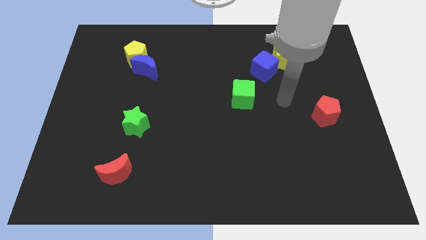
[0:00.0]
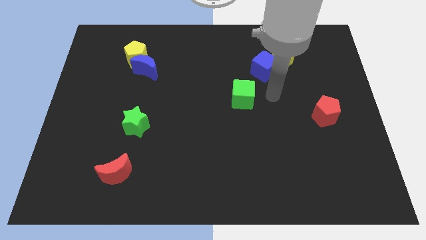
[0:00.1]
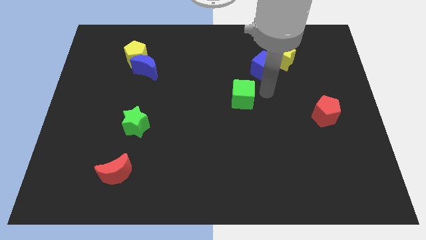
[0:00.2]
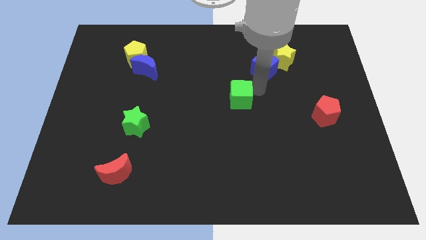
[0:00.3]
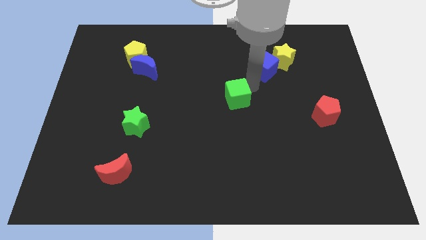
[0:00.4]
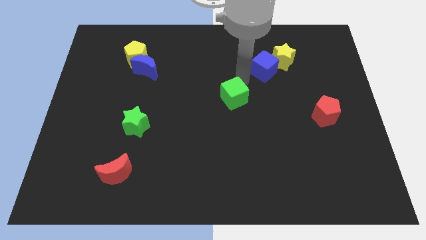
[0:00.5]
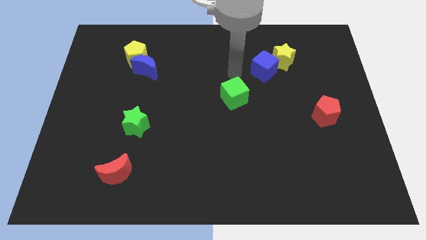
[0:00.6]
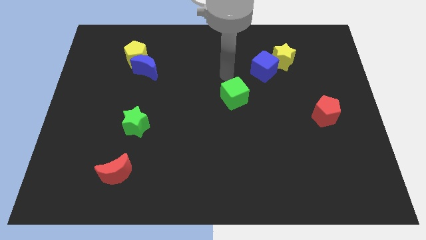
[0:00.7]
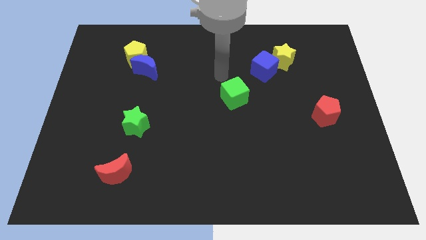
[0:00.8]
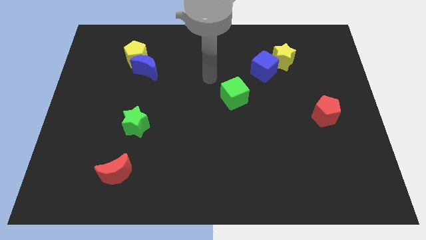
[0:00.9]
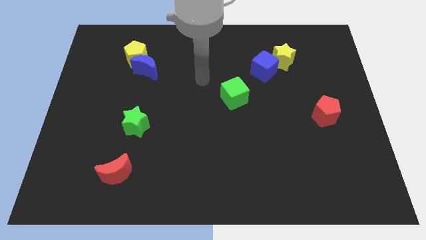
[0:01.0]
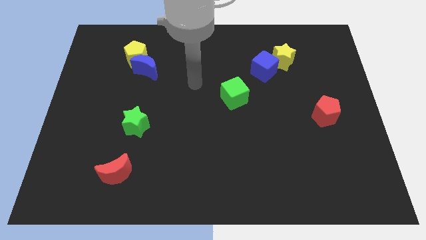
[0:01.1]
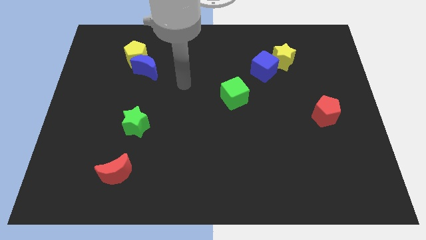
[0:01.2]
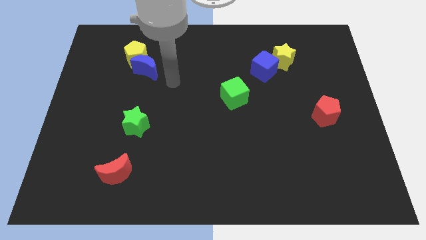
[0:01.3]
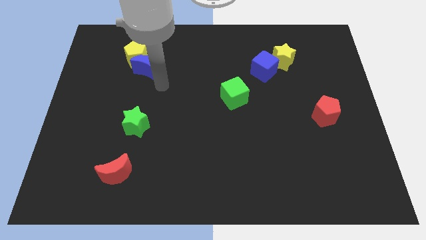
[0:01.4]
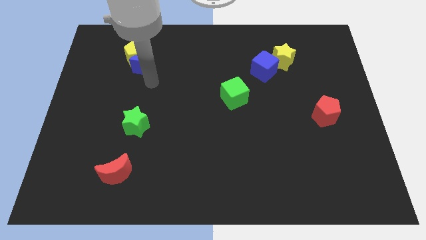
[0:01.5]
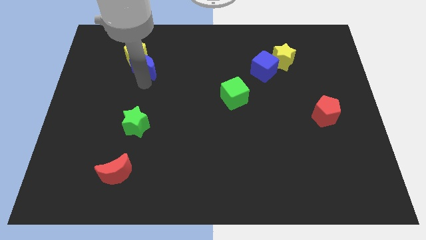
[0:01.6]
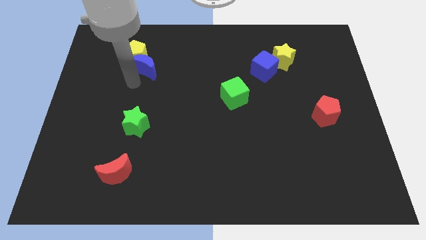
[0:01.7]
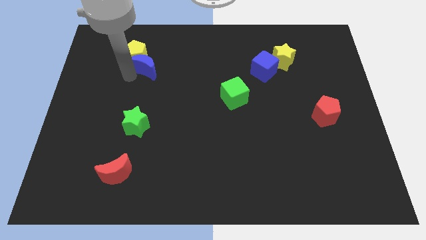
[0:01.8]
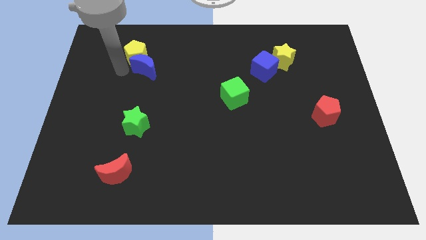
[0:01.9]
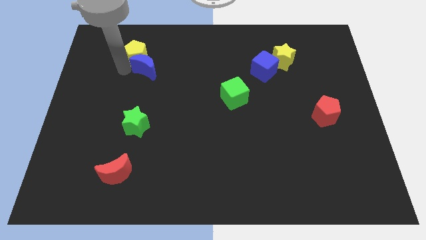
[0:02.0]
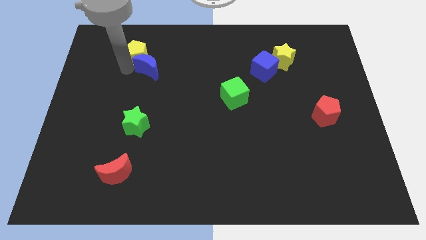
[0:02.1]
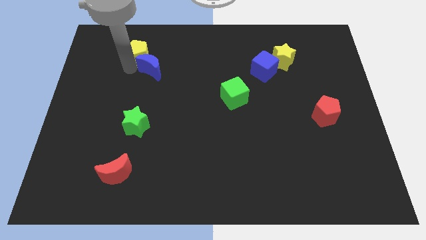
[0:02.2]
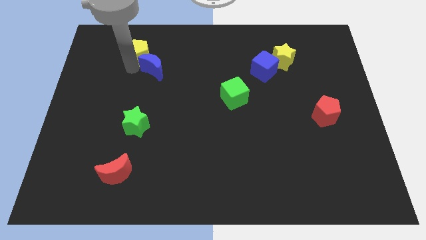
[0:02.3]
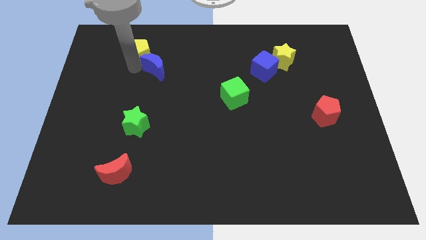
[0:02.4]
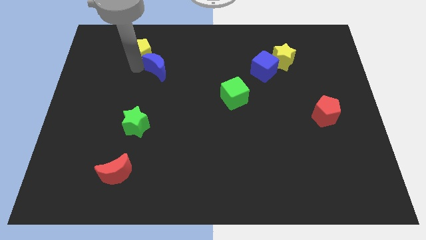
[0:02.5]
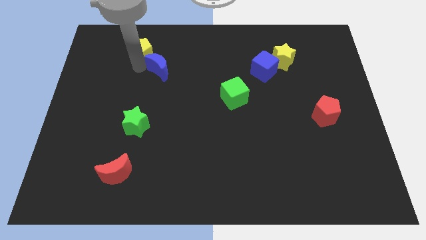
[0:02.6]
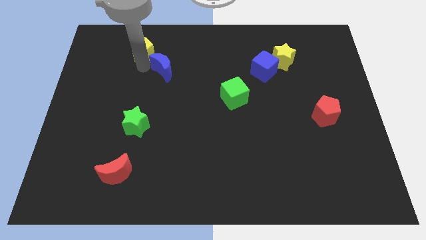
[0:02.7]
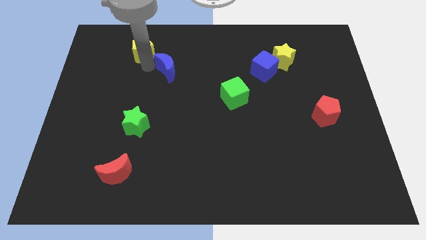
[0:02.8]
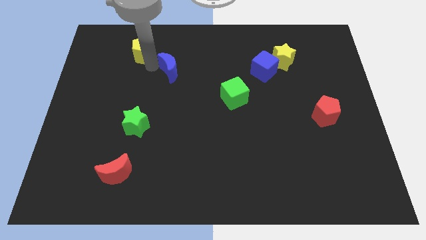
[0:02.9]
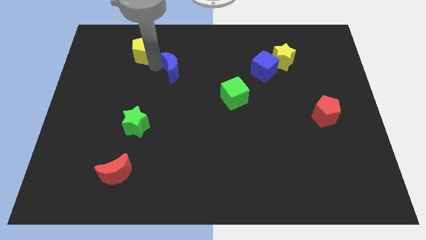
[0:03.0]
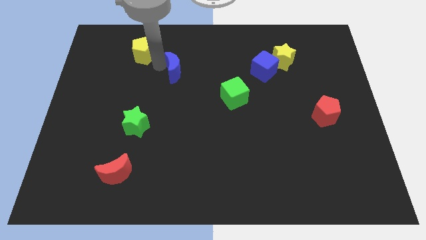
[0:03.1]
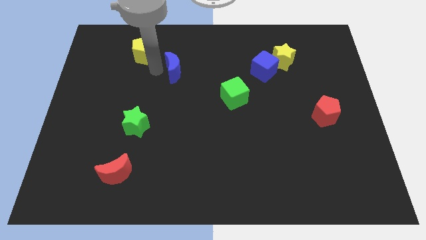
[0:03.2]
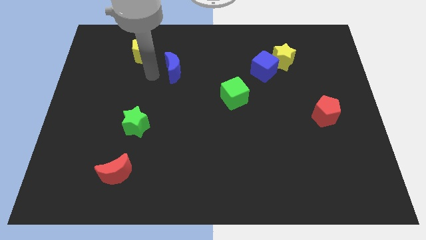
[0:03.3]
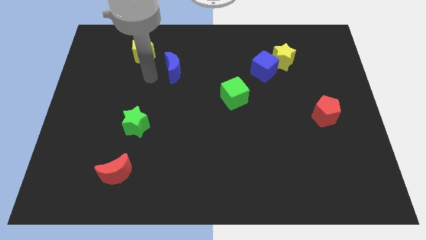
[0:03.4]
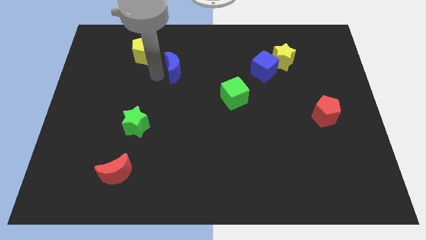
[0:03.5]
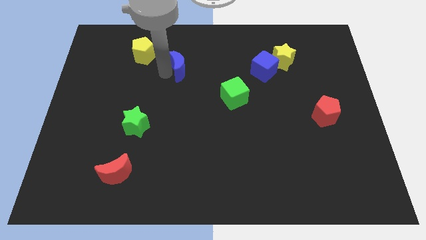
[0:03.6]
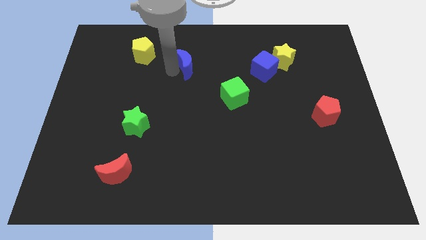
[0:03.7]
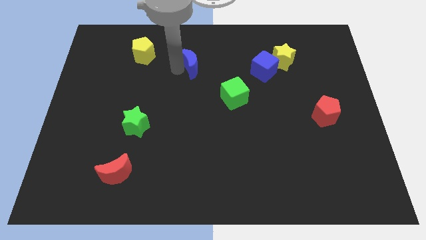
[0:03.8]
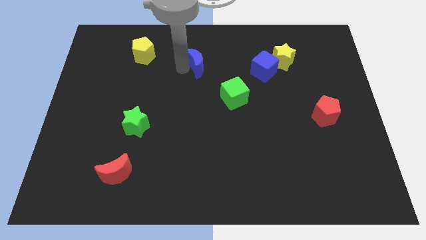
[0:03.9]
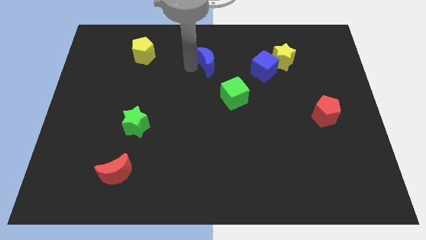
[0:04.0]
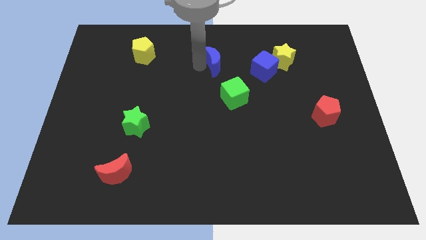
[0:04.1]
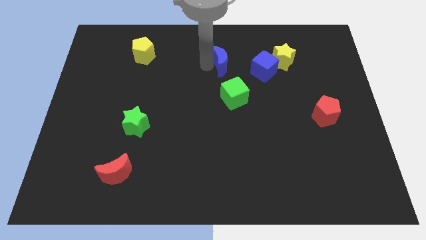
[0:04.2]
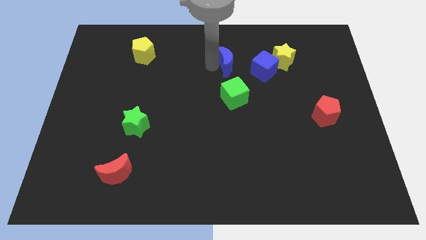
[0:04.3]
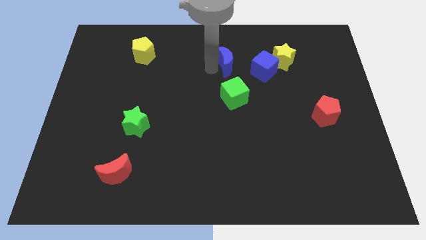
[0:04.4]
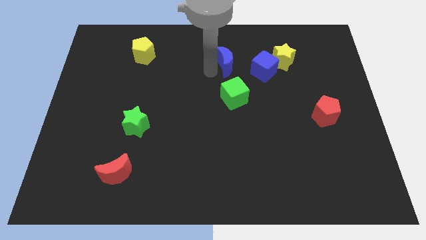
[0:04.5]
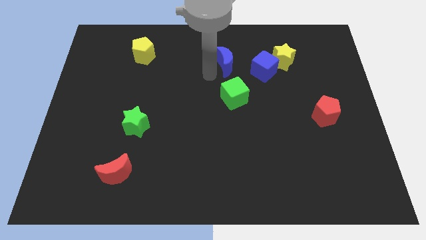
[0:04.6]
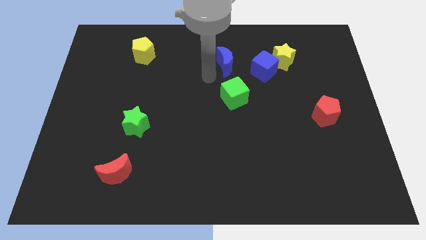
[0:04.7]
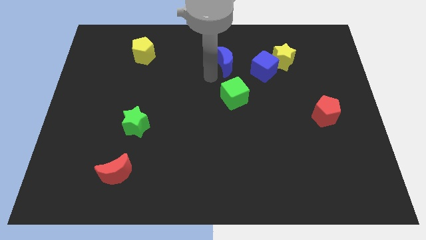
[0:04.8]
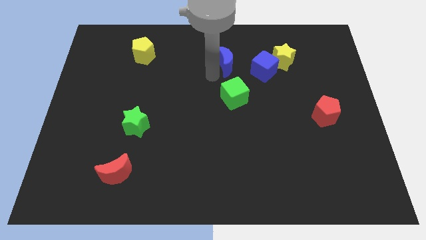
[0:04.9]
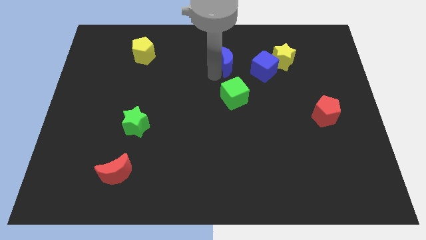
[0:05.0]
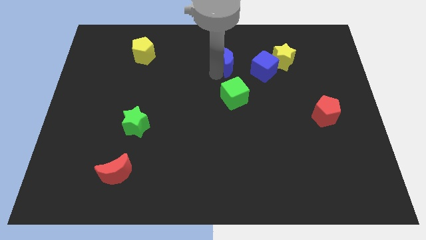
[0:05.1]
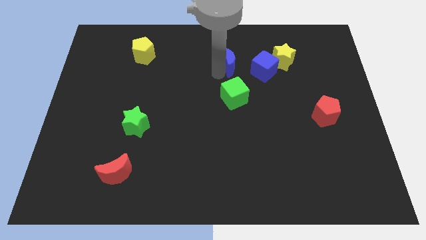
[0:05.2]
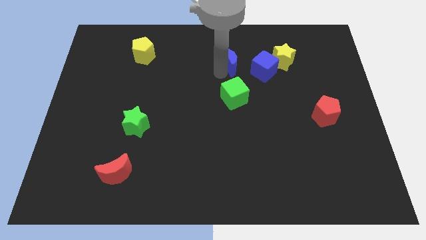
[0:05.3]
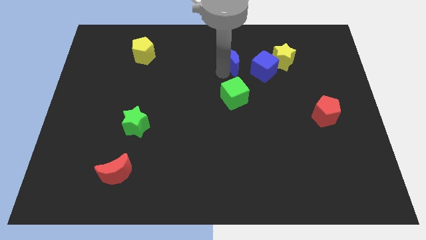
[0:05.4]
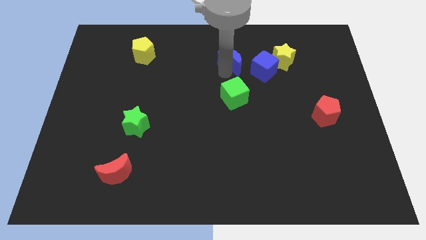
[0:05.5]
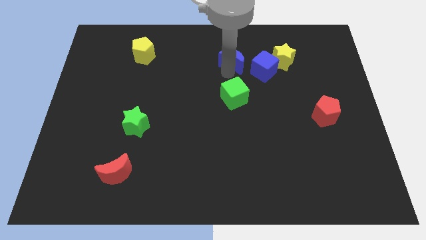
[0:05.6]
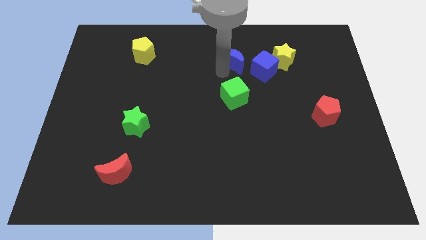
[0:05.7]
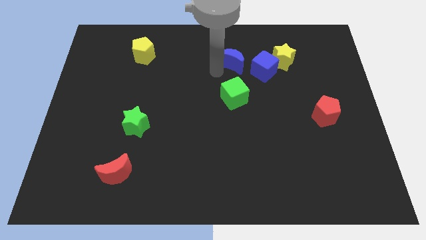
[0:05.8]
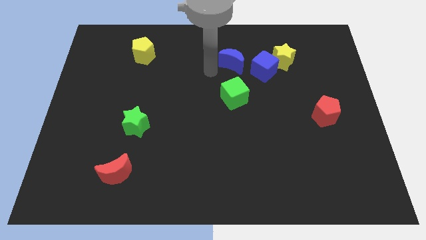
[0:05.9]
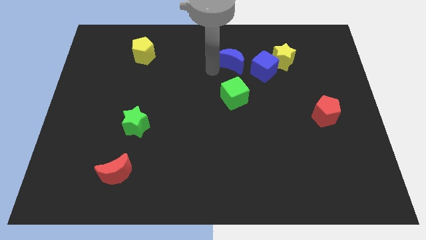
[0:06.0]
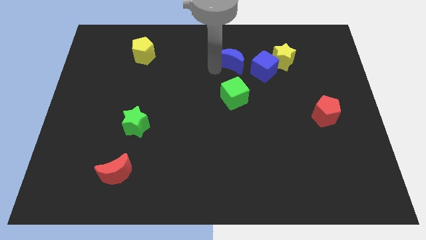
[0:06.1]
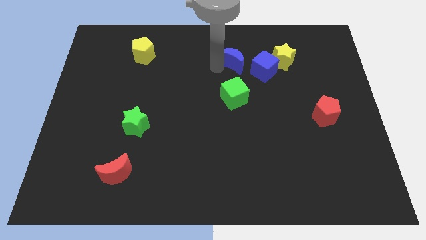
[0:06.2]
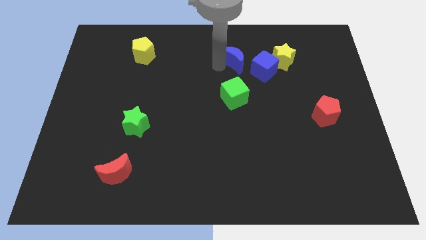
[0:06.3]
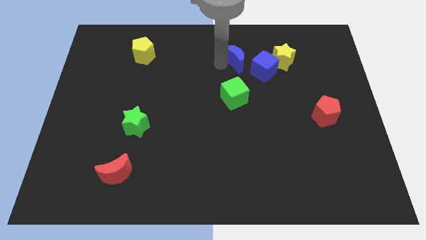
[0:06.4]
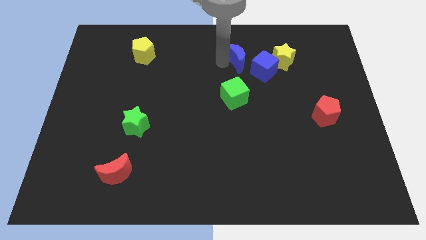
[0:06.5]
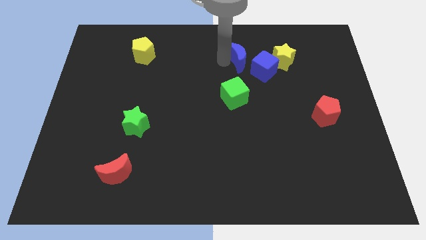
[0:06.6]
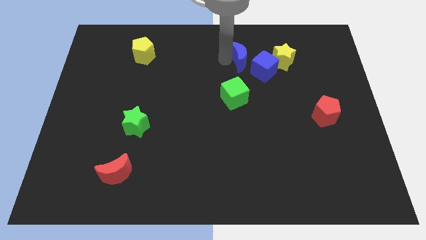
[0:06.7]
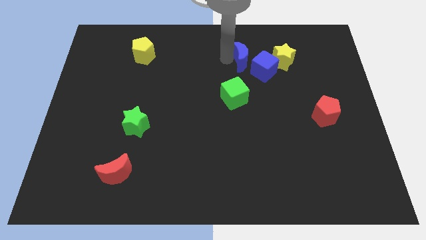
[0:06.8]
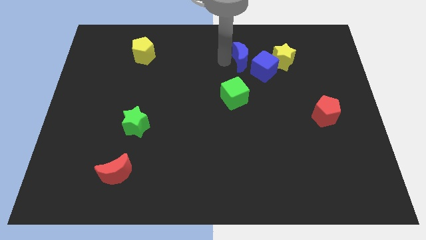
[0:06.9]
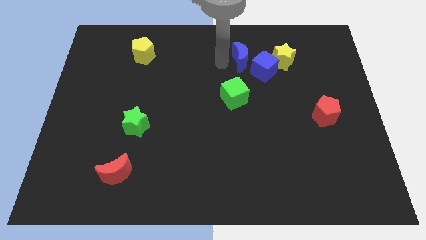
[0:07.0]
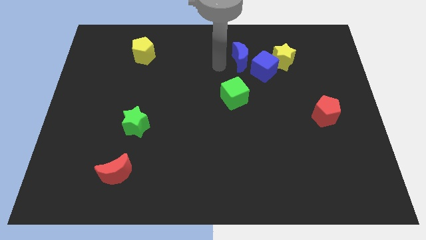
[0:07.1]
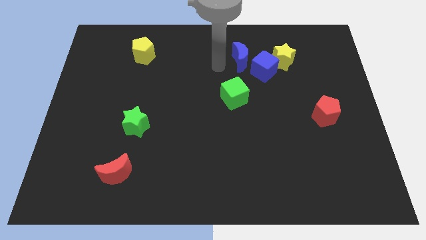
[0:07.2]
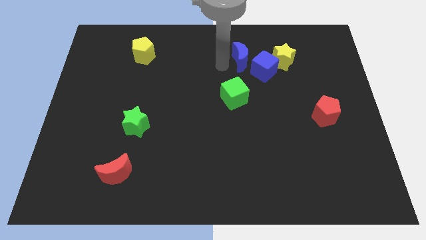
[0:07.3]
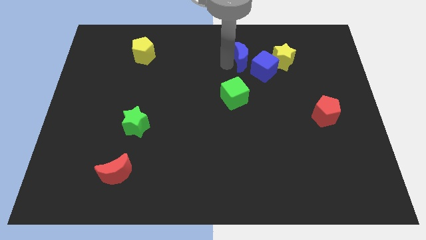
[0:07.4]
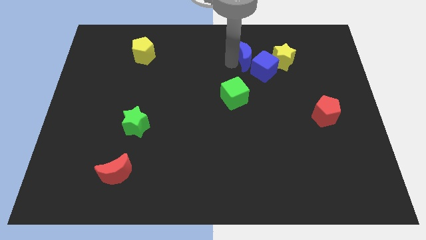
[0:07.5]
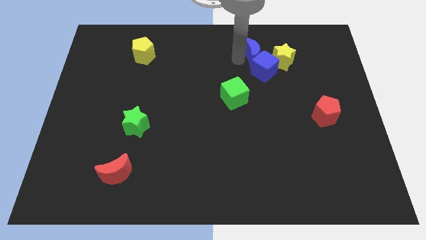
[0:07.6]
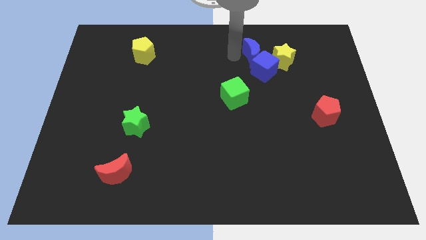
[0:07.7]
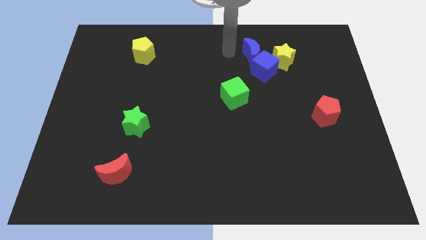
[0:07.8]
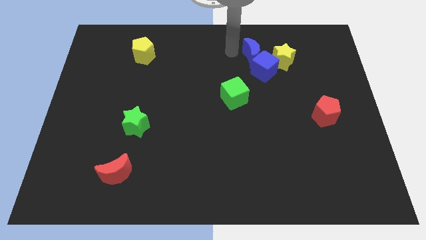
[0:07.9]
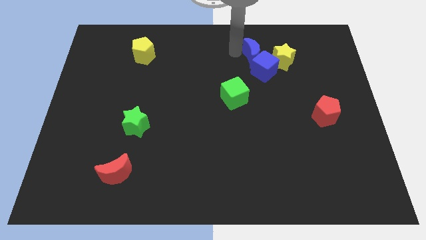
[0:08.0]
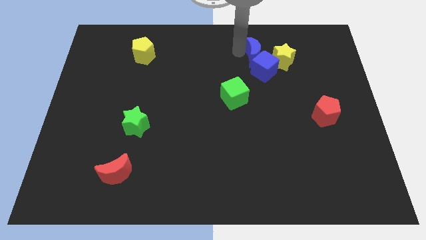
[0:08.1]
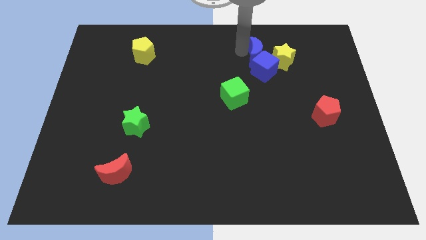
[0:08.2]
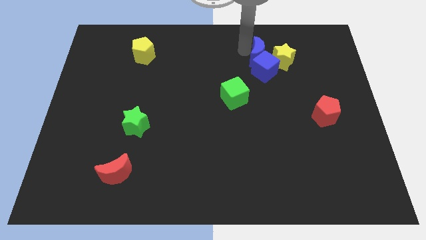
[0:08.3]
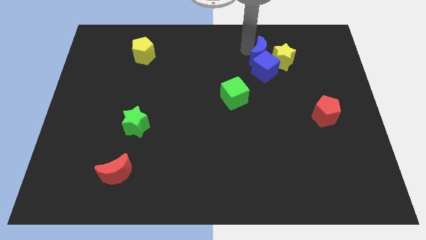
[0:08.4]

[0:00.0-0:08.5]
push the blue moon to the yellow star
